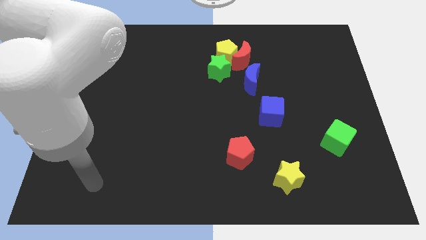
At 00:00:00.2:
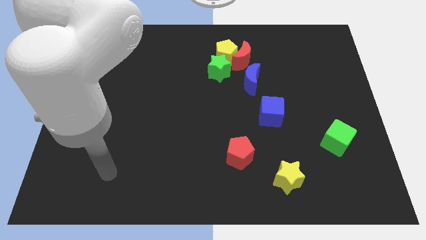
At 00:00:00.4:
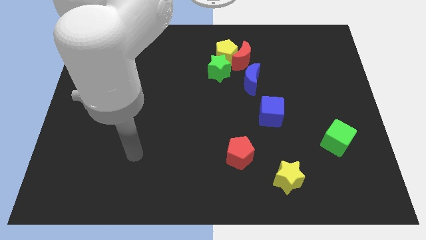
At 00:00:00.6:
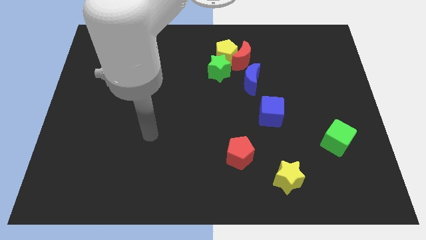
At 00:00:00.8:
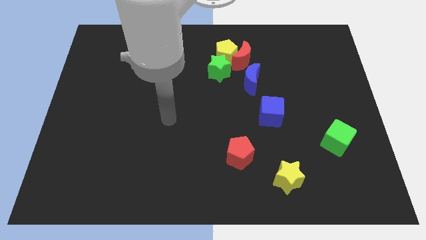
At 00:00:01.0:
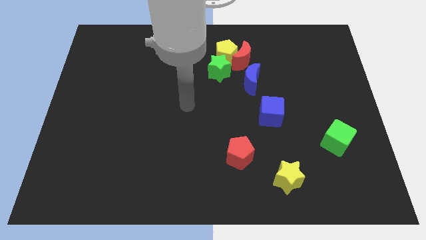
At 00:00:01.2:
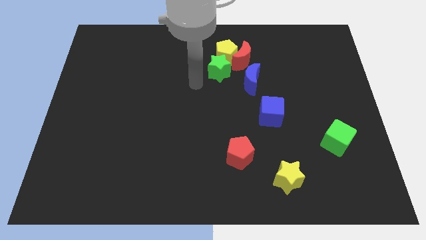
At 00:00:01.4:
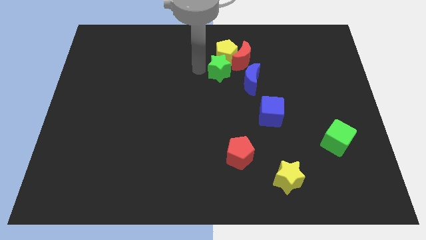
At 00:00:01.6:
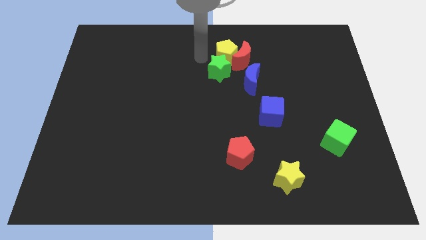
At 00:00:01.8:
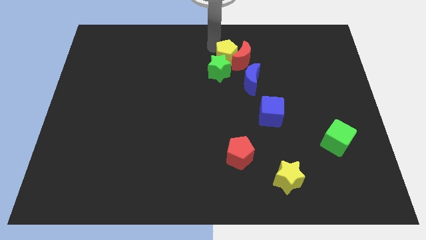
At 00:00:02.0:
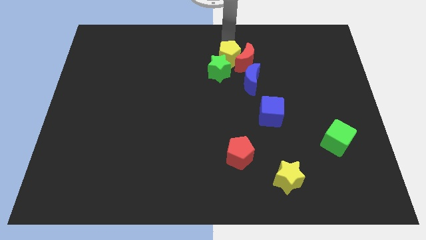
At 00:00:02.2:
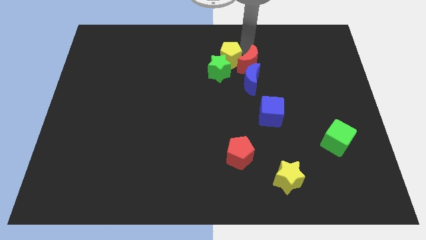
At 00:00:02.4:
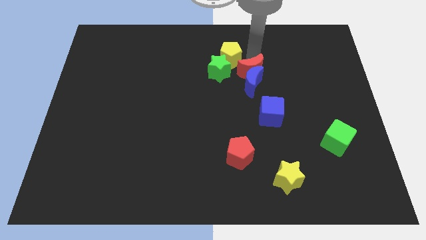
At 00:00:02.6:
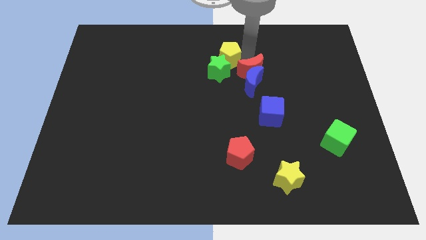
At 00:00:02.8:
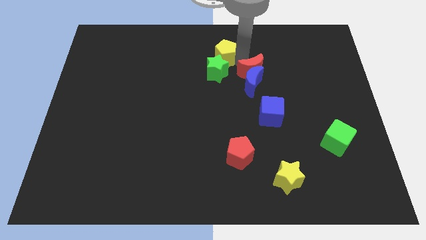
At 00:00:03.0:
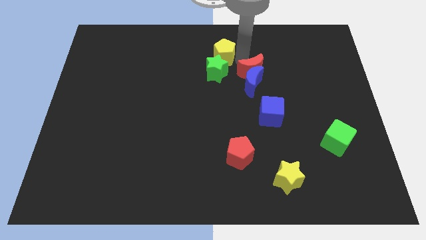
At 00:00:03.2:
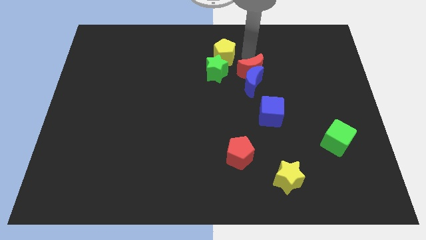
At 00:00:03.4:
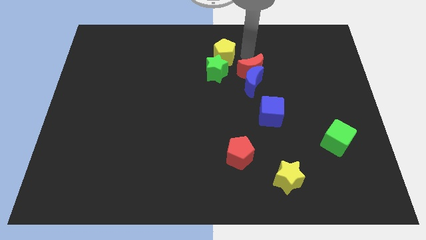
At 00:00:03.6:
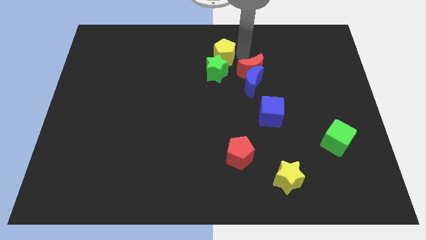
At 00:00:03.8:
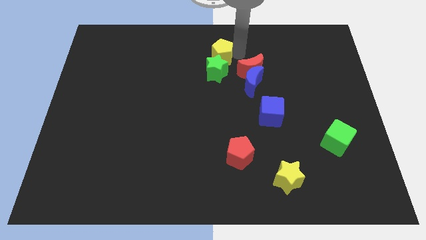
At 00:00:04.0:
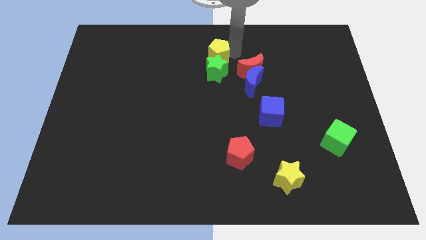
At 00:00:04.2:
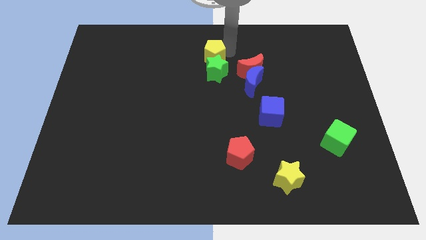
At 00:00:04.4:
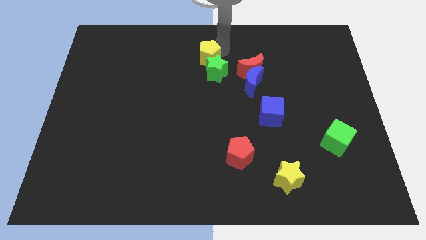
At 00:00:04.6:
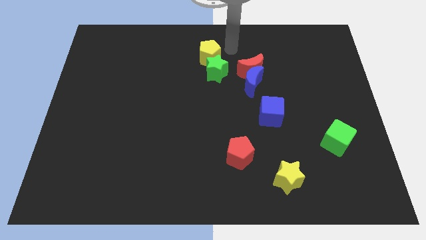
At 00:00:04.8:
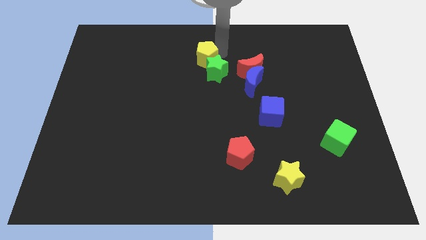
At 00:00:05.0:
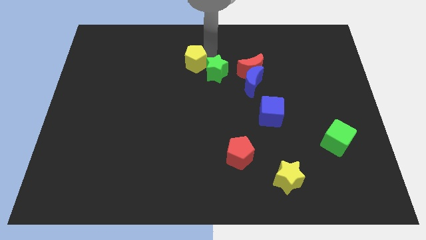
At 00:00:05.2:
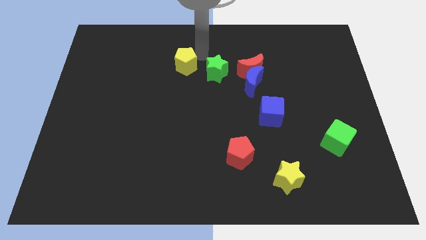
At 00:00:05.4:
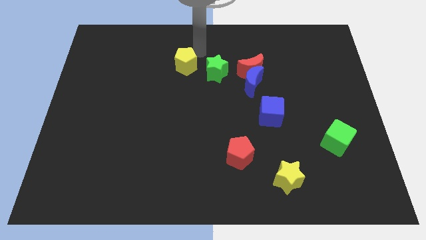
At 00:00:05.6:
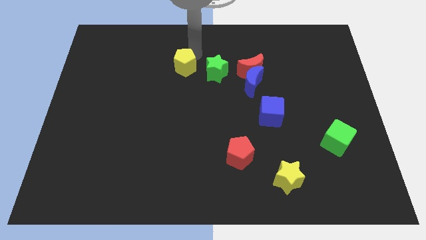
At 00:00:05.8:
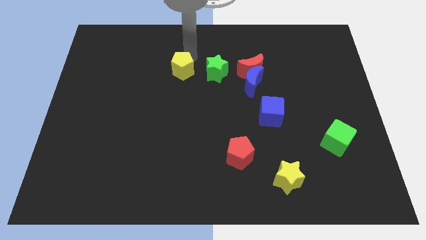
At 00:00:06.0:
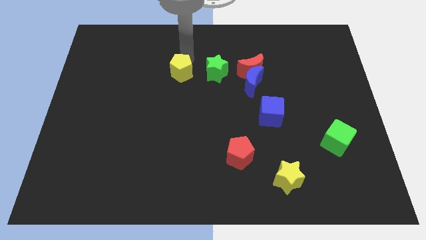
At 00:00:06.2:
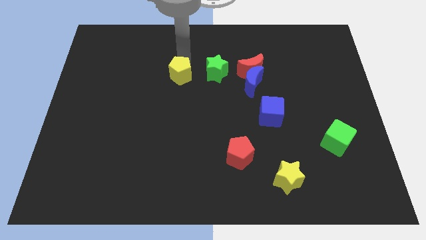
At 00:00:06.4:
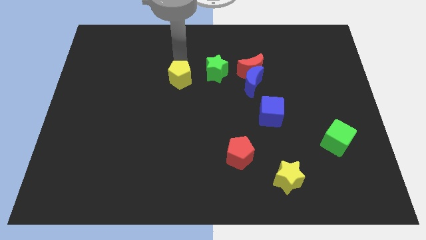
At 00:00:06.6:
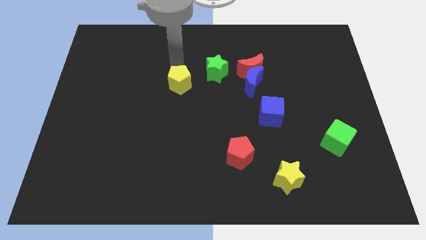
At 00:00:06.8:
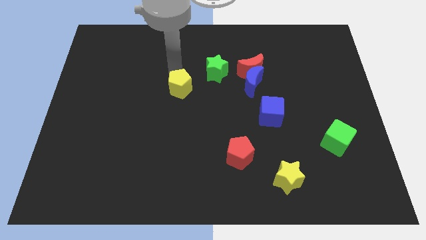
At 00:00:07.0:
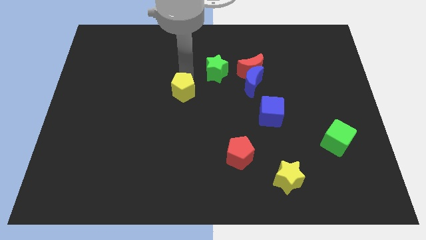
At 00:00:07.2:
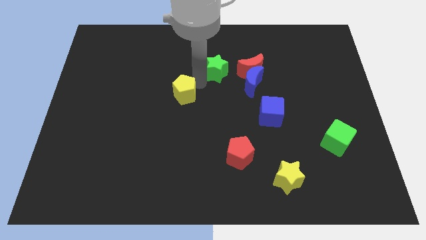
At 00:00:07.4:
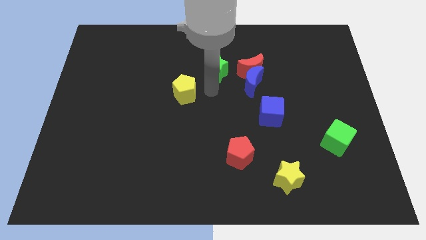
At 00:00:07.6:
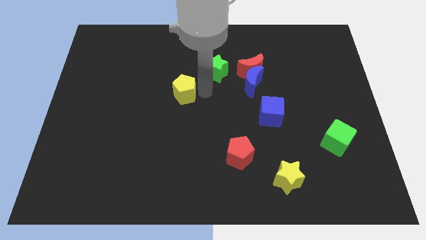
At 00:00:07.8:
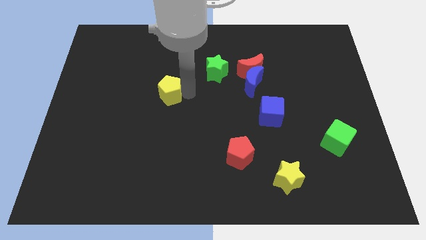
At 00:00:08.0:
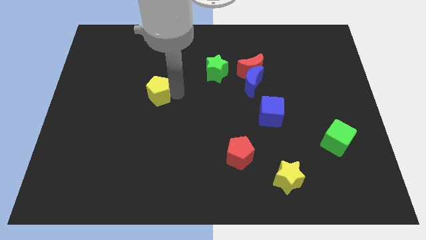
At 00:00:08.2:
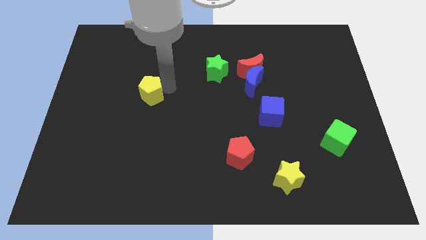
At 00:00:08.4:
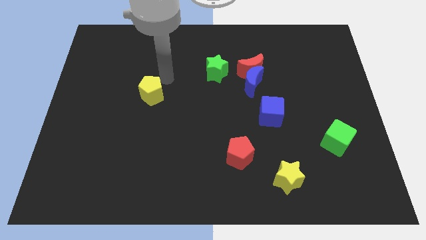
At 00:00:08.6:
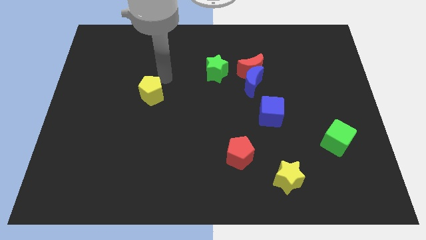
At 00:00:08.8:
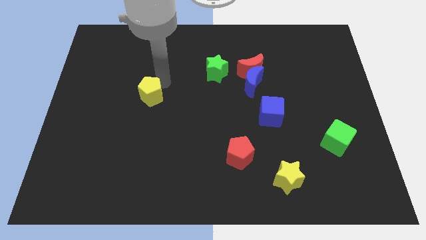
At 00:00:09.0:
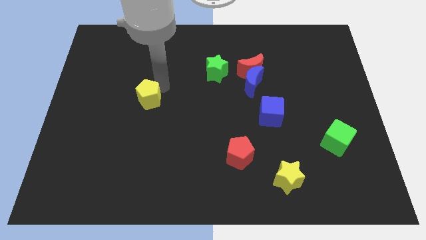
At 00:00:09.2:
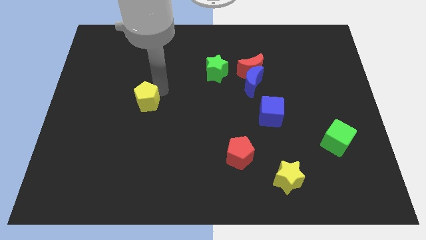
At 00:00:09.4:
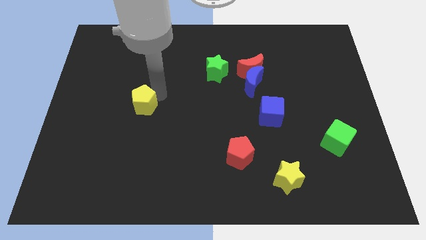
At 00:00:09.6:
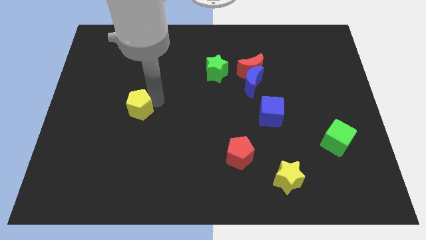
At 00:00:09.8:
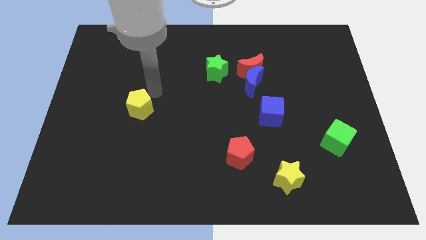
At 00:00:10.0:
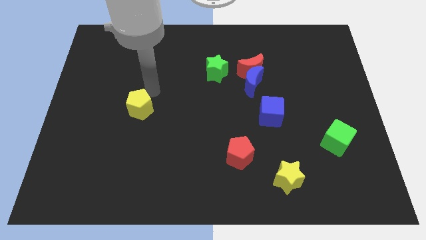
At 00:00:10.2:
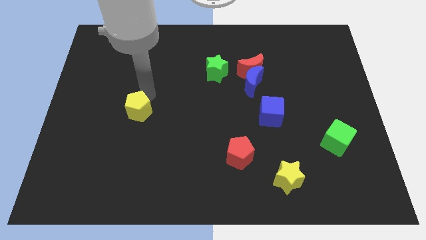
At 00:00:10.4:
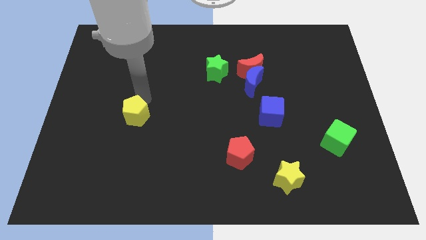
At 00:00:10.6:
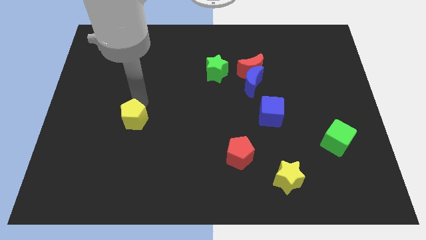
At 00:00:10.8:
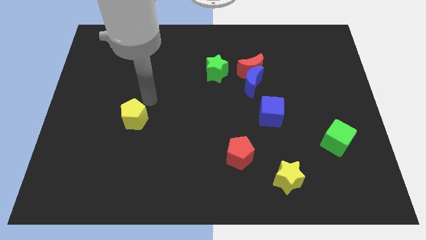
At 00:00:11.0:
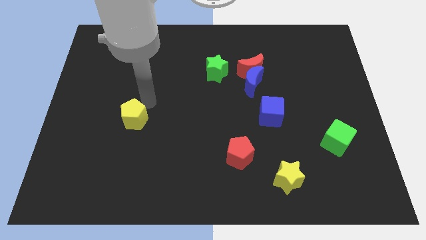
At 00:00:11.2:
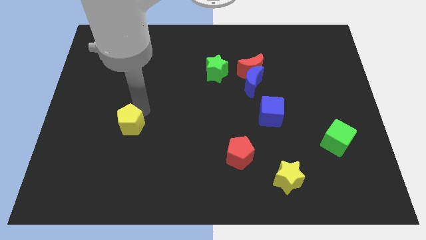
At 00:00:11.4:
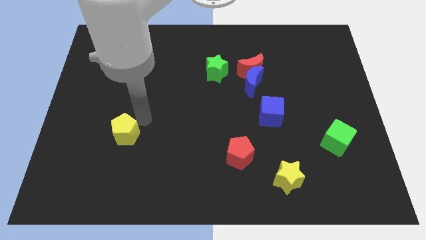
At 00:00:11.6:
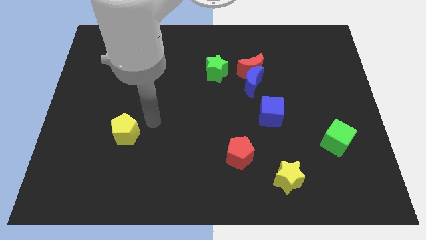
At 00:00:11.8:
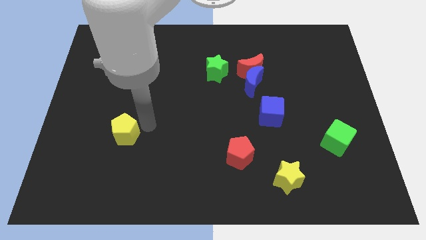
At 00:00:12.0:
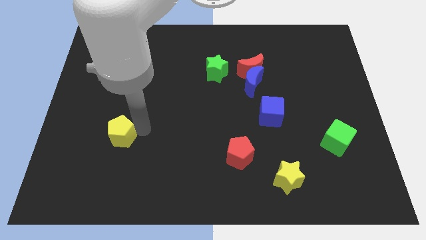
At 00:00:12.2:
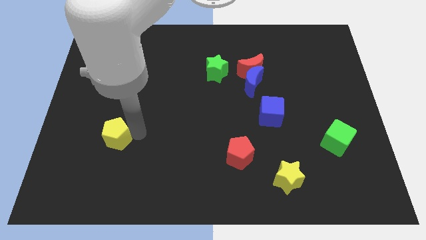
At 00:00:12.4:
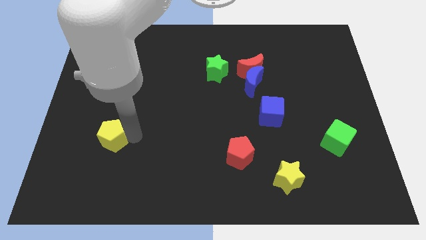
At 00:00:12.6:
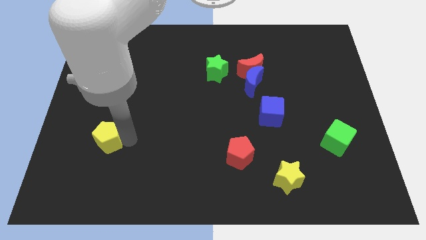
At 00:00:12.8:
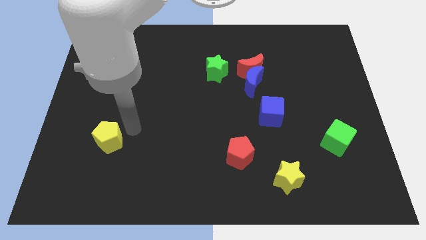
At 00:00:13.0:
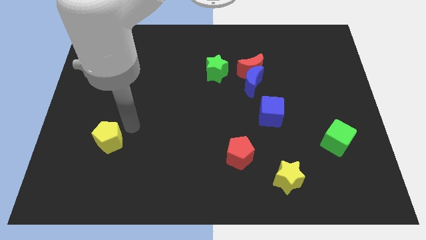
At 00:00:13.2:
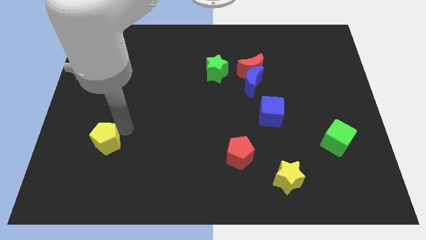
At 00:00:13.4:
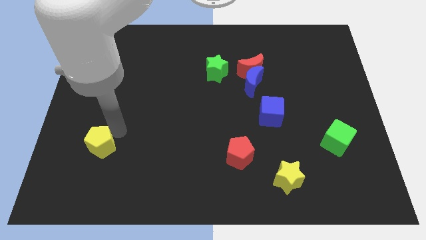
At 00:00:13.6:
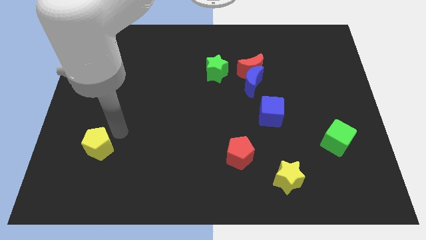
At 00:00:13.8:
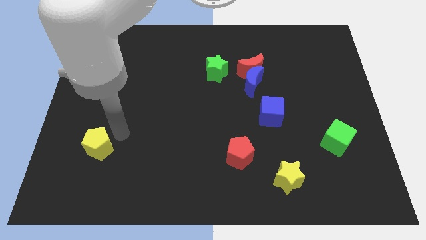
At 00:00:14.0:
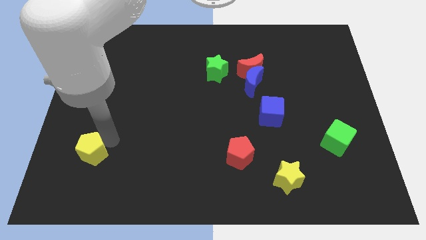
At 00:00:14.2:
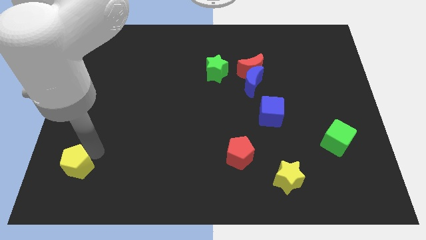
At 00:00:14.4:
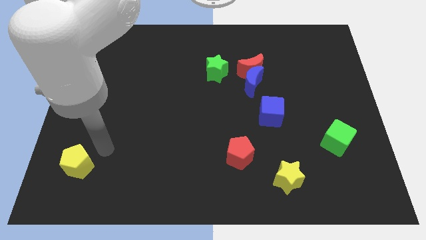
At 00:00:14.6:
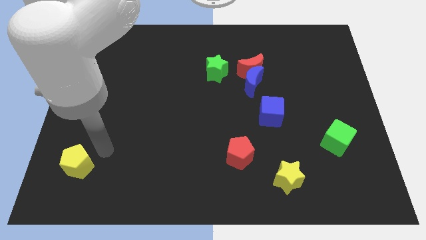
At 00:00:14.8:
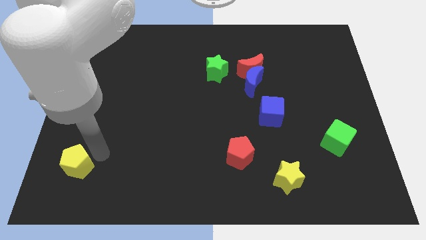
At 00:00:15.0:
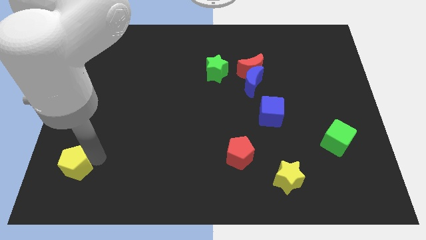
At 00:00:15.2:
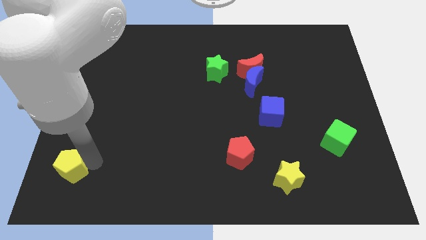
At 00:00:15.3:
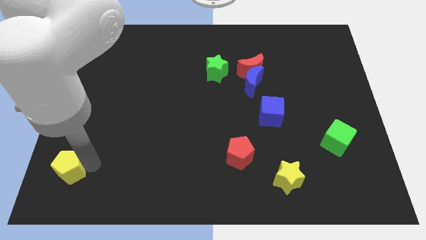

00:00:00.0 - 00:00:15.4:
put the yellow pentagon to the lower left corner
